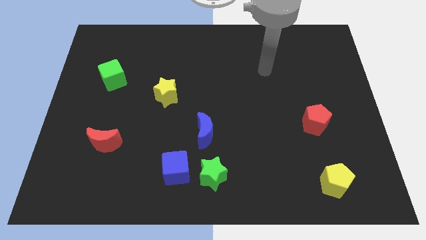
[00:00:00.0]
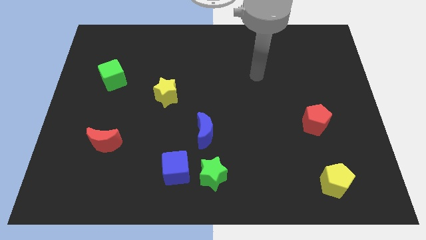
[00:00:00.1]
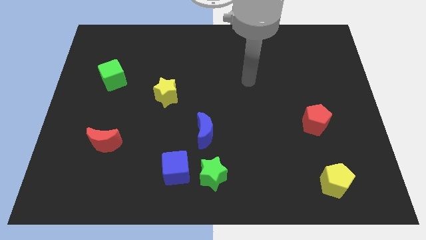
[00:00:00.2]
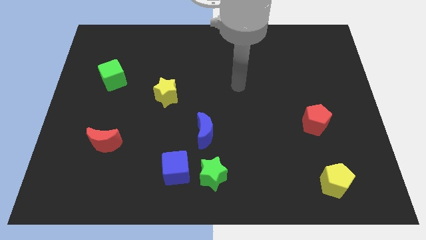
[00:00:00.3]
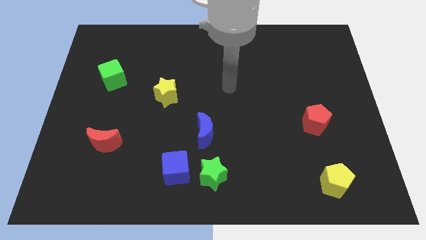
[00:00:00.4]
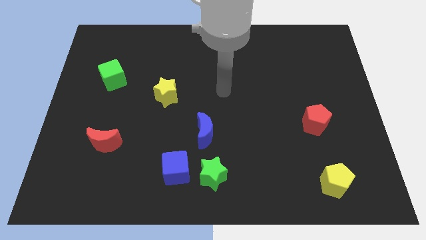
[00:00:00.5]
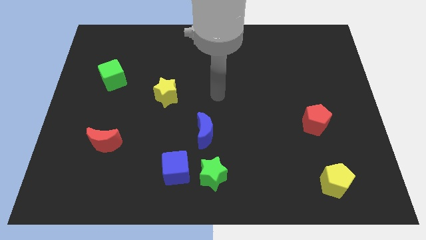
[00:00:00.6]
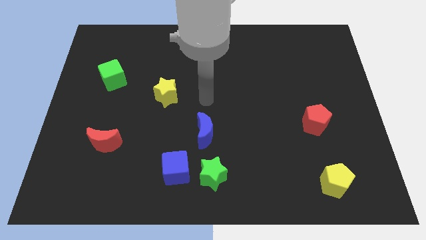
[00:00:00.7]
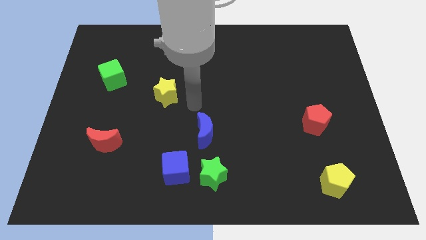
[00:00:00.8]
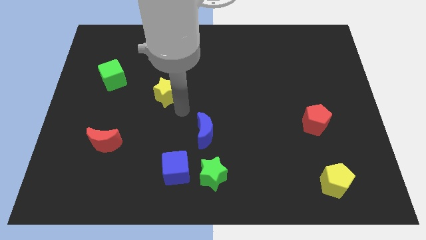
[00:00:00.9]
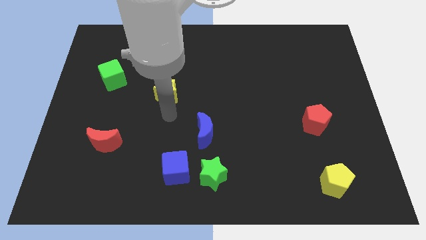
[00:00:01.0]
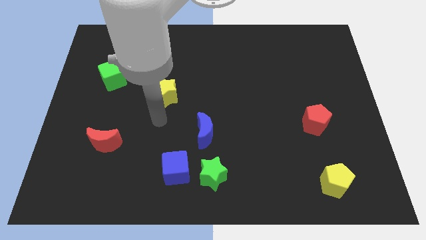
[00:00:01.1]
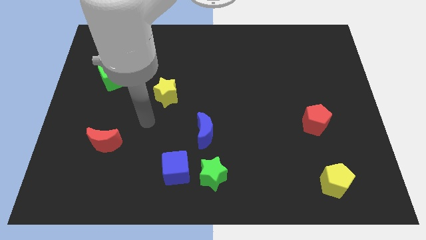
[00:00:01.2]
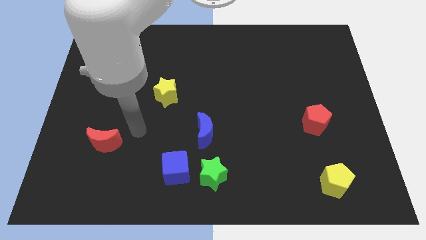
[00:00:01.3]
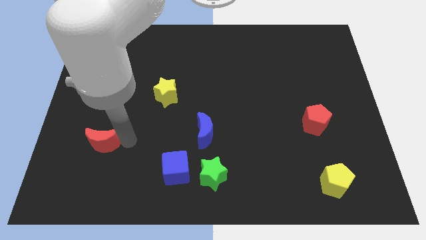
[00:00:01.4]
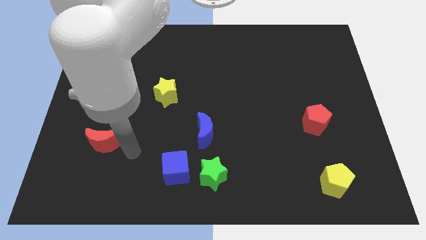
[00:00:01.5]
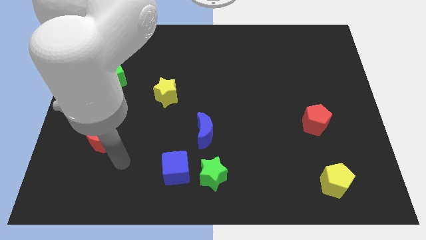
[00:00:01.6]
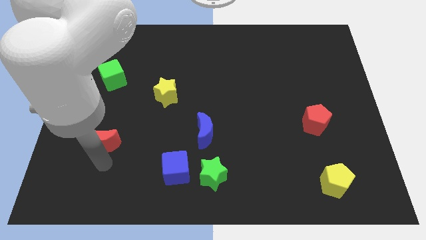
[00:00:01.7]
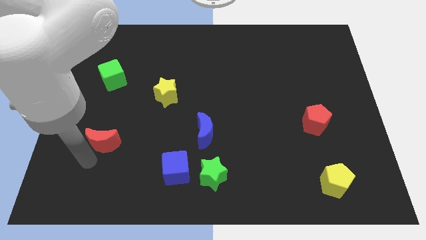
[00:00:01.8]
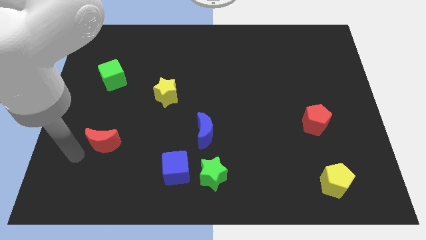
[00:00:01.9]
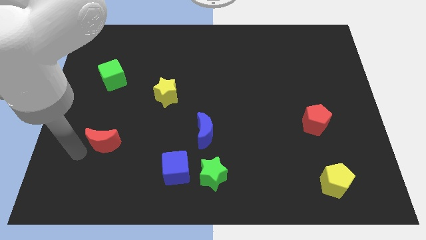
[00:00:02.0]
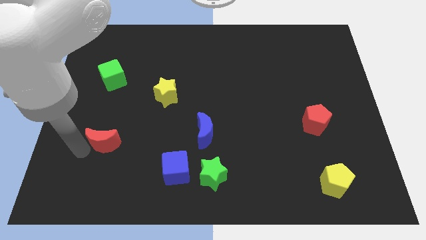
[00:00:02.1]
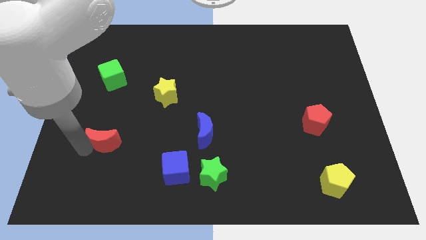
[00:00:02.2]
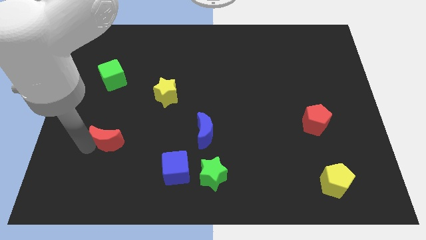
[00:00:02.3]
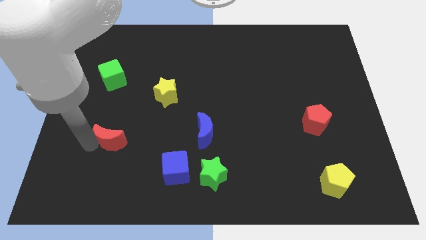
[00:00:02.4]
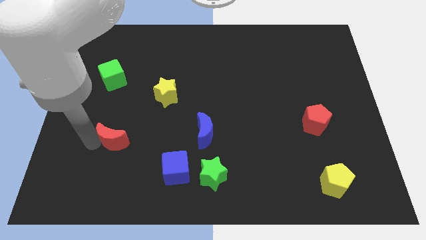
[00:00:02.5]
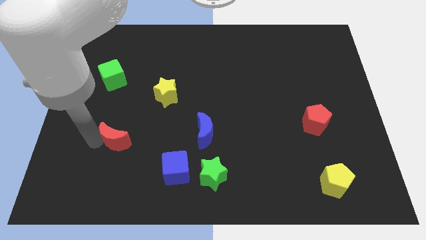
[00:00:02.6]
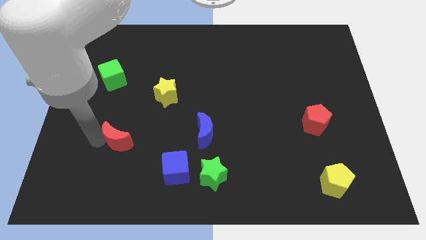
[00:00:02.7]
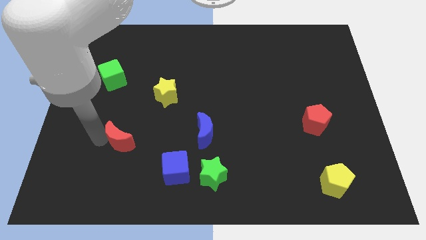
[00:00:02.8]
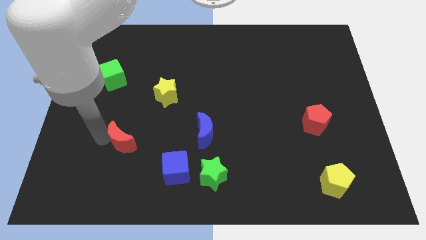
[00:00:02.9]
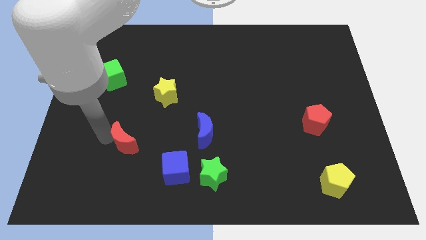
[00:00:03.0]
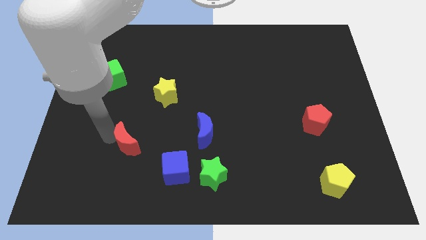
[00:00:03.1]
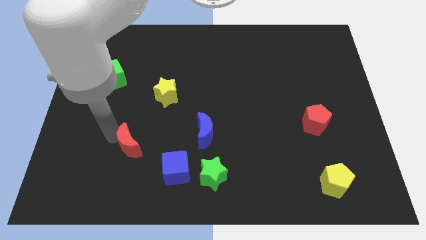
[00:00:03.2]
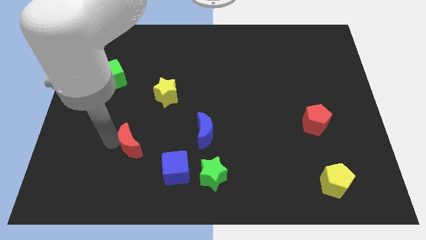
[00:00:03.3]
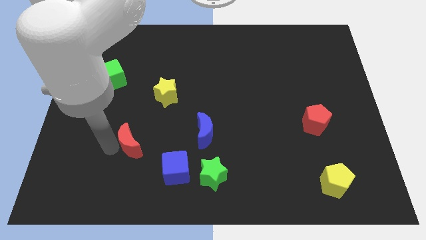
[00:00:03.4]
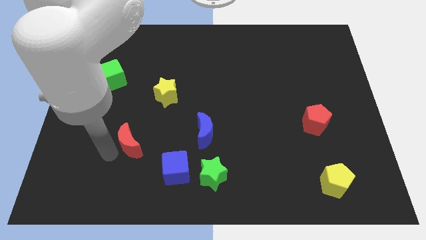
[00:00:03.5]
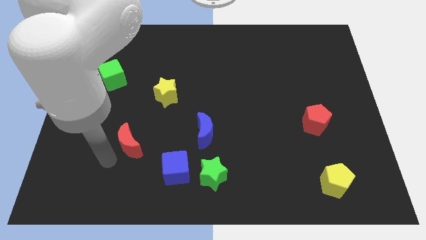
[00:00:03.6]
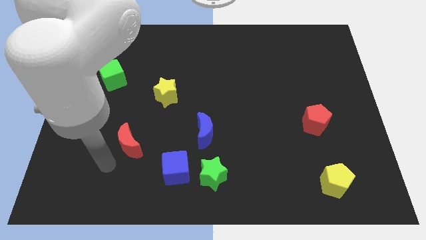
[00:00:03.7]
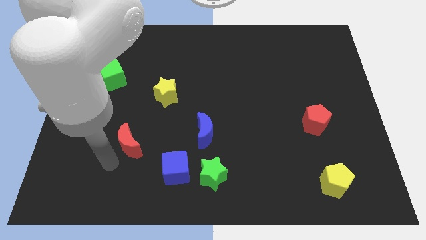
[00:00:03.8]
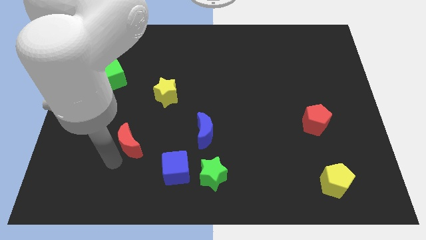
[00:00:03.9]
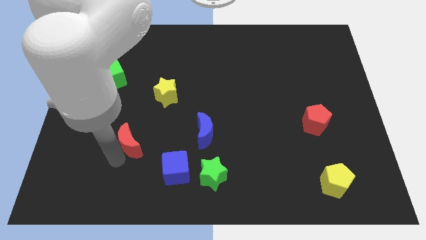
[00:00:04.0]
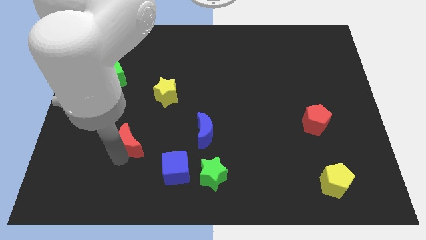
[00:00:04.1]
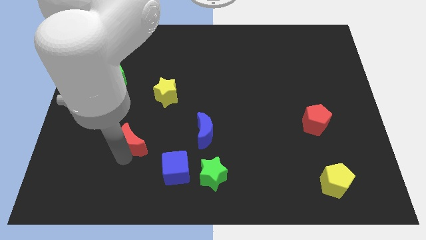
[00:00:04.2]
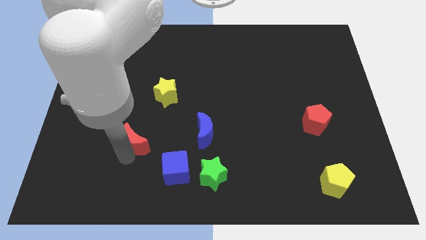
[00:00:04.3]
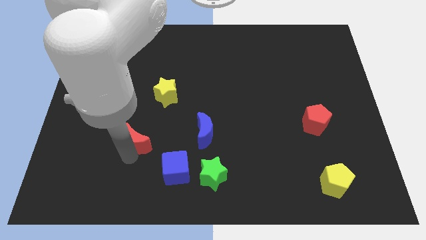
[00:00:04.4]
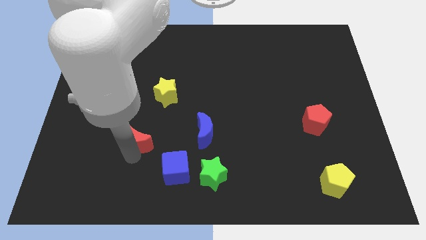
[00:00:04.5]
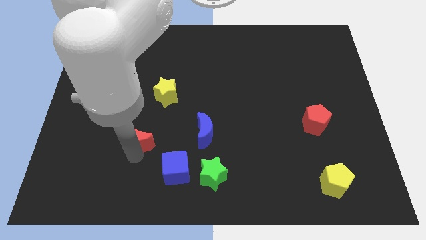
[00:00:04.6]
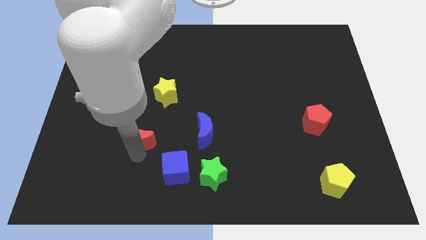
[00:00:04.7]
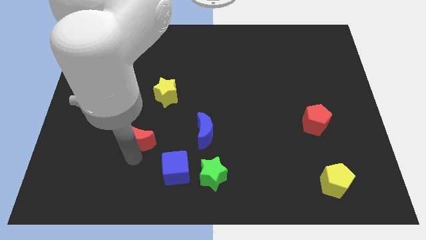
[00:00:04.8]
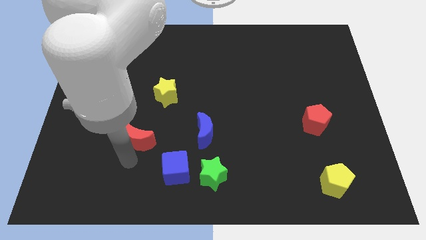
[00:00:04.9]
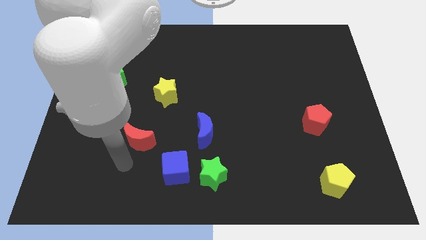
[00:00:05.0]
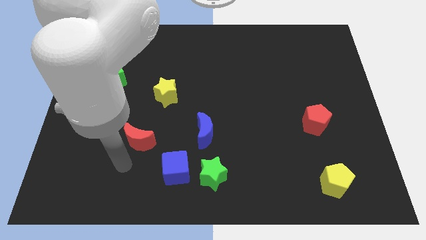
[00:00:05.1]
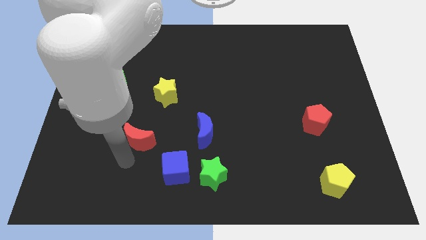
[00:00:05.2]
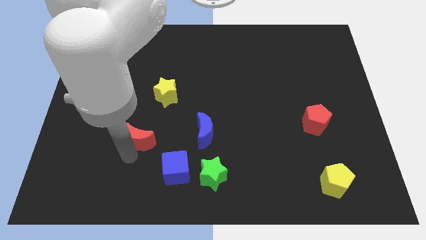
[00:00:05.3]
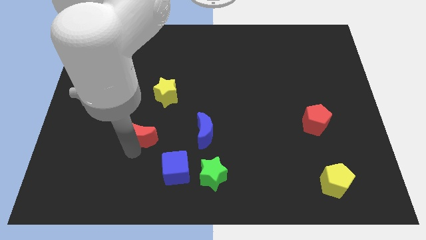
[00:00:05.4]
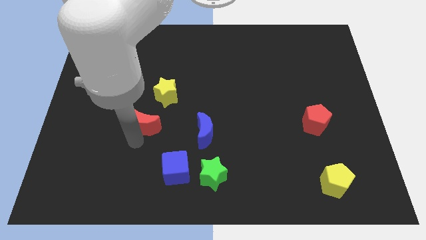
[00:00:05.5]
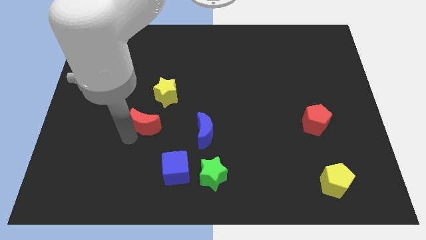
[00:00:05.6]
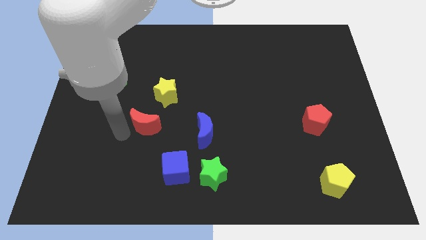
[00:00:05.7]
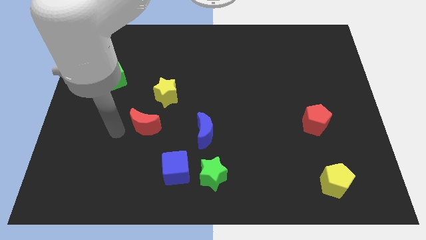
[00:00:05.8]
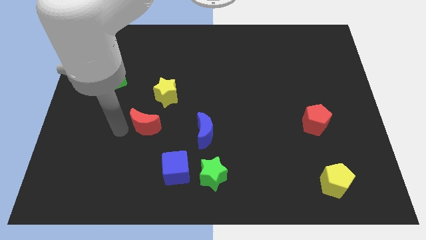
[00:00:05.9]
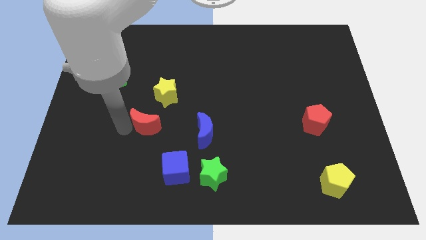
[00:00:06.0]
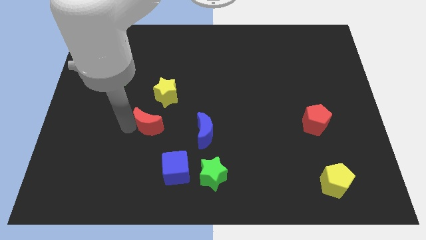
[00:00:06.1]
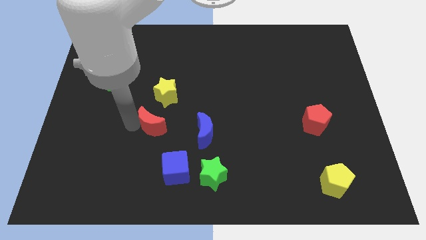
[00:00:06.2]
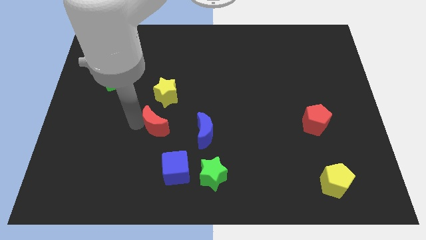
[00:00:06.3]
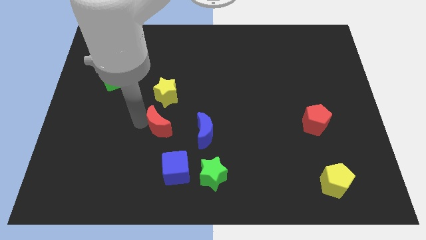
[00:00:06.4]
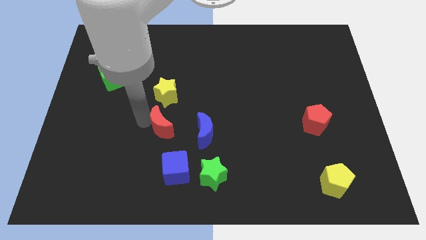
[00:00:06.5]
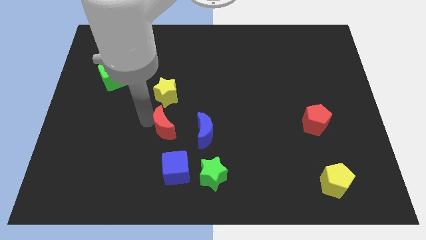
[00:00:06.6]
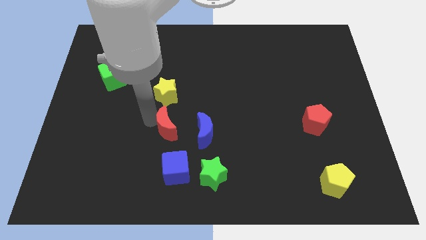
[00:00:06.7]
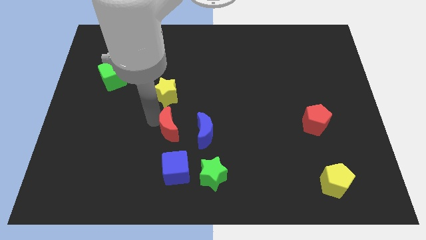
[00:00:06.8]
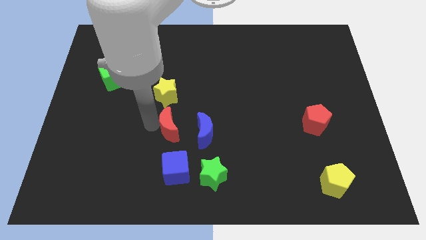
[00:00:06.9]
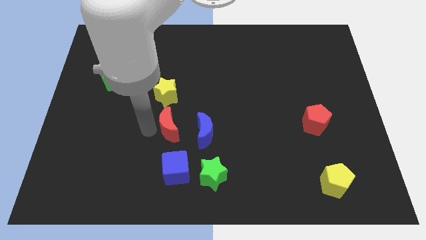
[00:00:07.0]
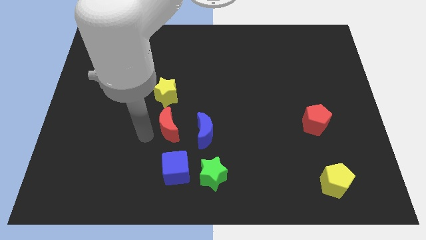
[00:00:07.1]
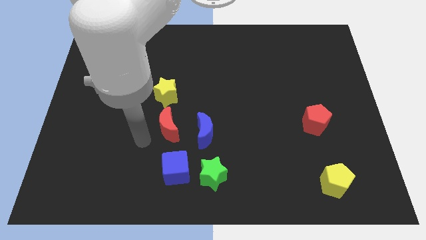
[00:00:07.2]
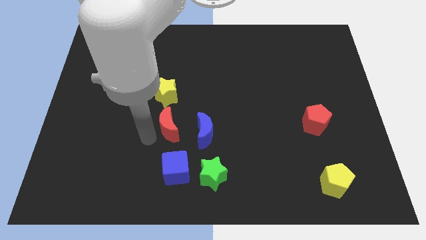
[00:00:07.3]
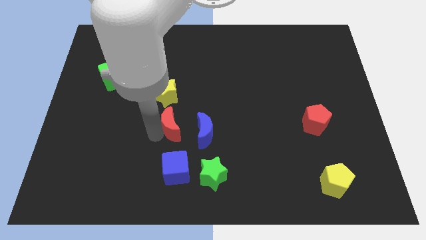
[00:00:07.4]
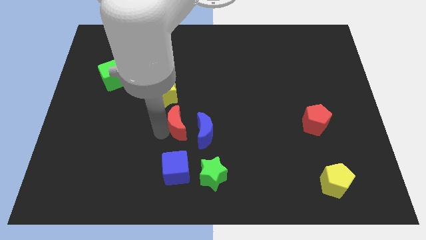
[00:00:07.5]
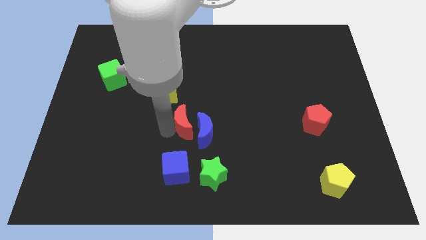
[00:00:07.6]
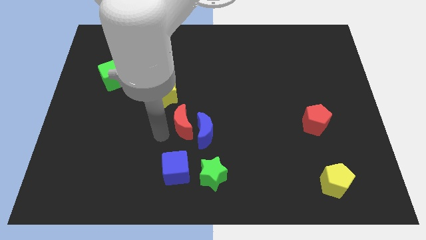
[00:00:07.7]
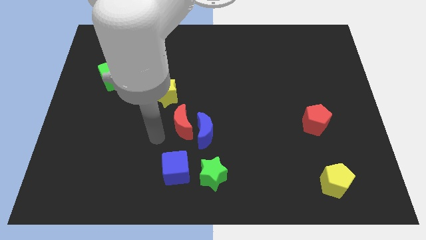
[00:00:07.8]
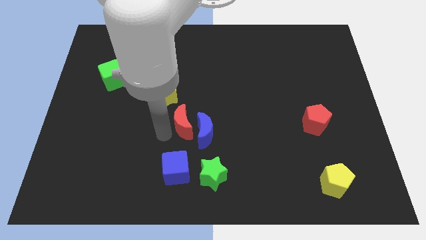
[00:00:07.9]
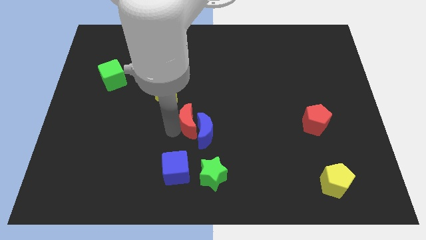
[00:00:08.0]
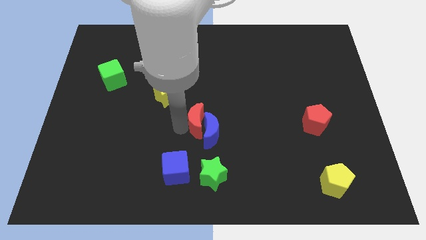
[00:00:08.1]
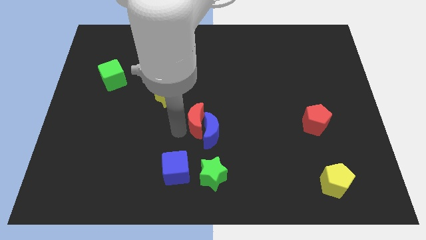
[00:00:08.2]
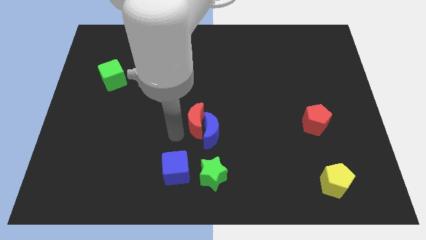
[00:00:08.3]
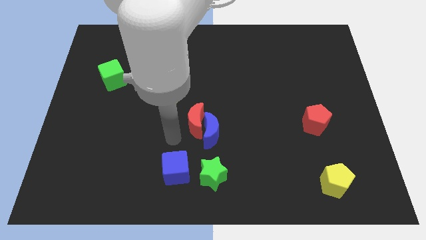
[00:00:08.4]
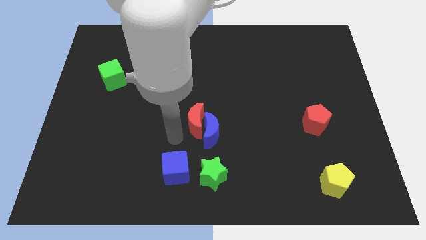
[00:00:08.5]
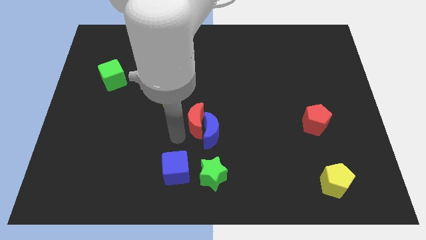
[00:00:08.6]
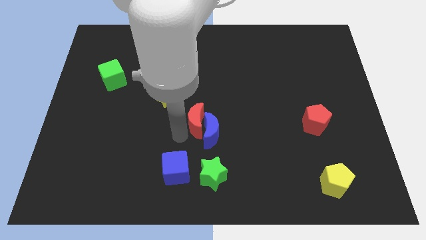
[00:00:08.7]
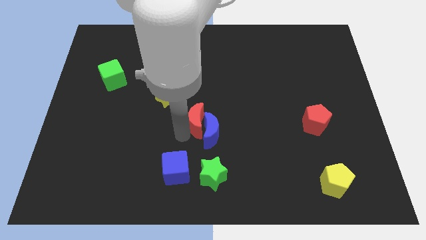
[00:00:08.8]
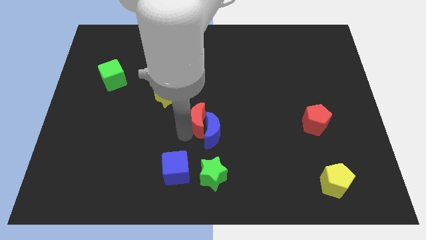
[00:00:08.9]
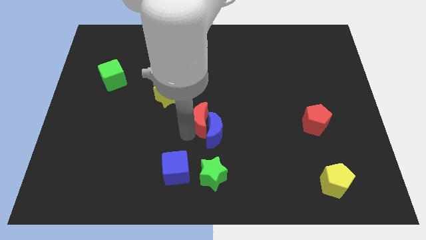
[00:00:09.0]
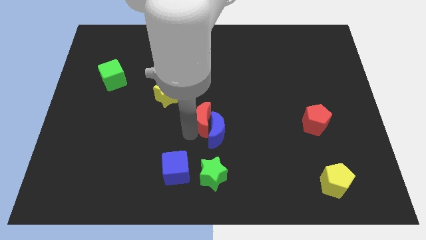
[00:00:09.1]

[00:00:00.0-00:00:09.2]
slide the red moon right
